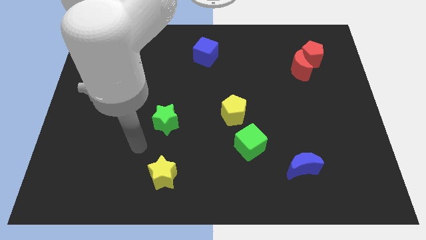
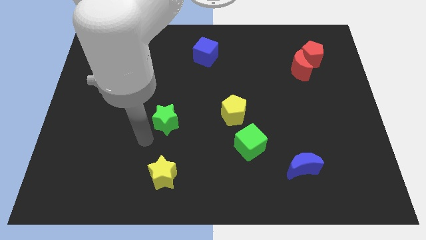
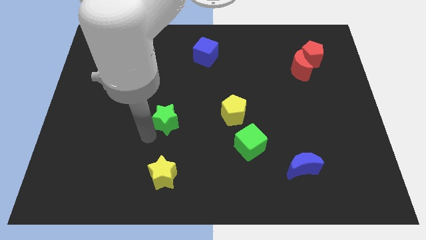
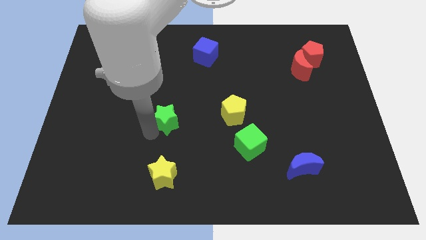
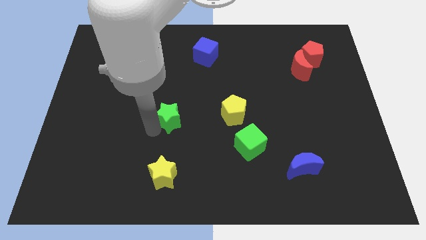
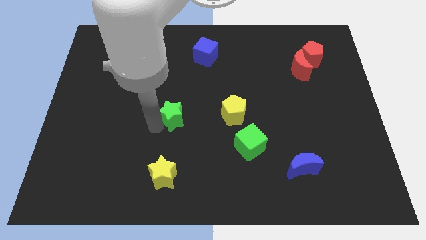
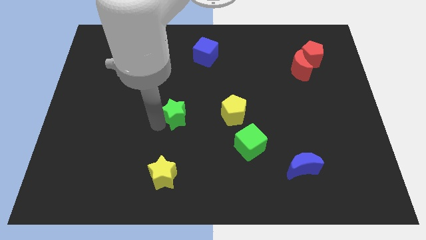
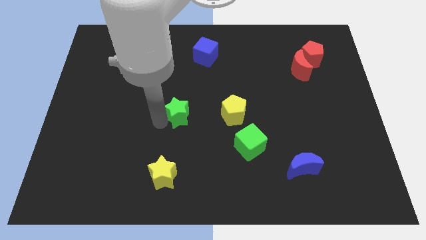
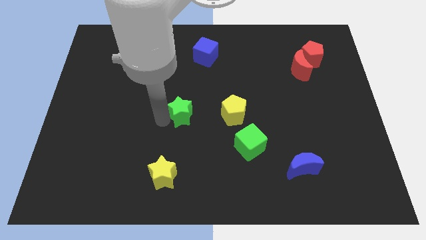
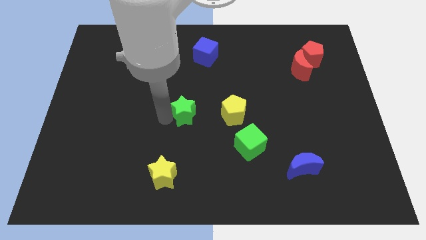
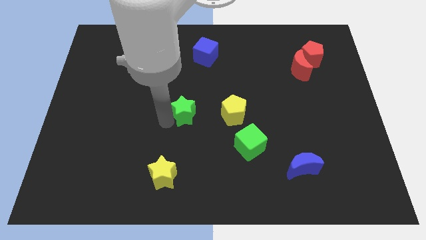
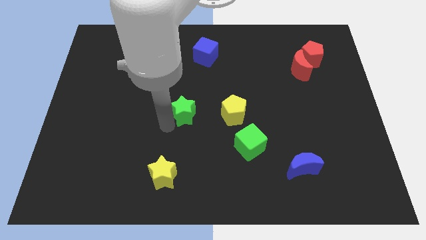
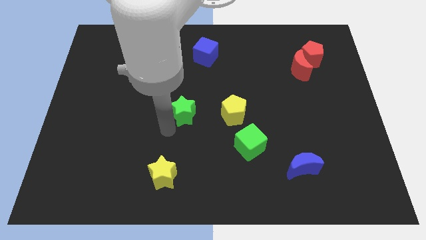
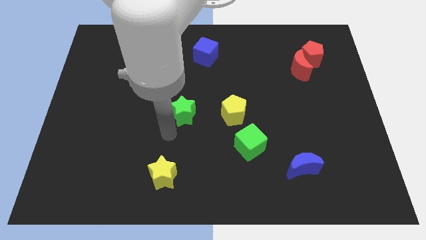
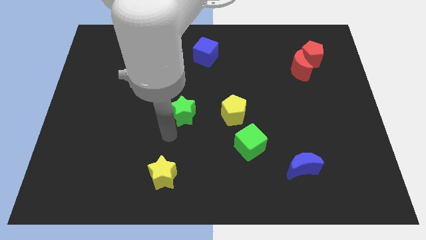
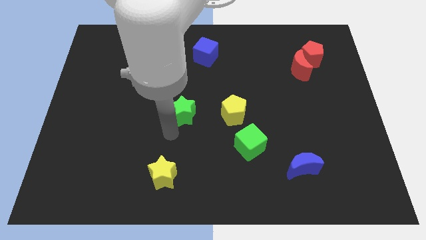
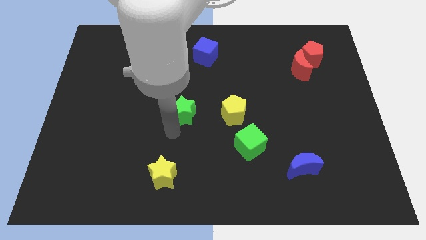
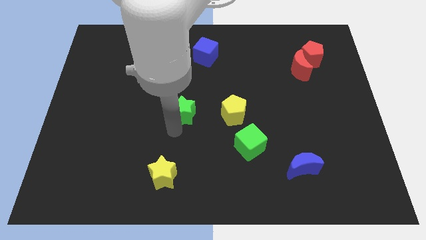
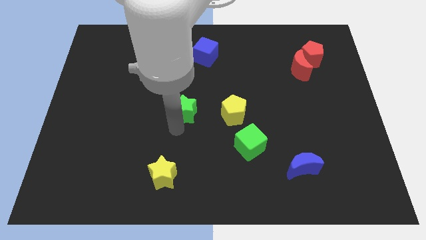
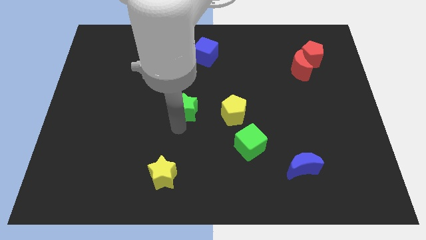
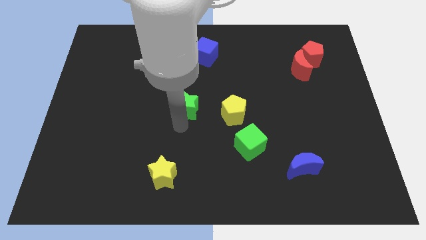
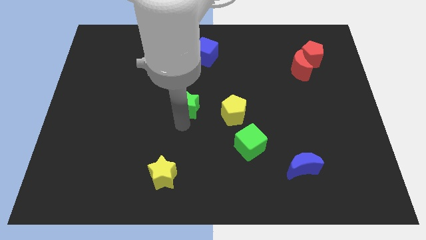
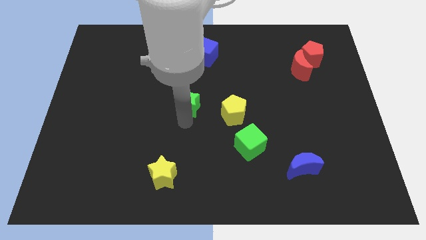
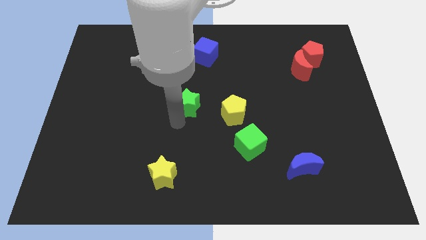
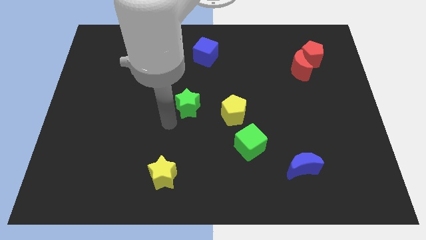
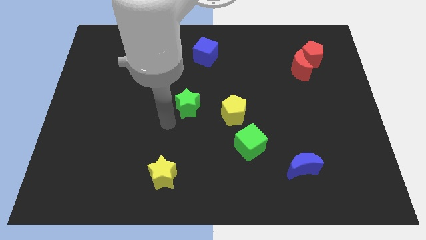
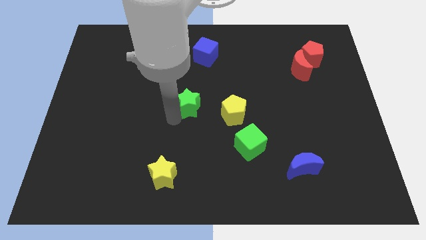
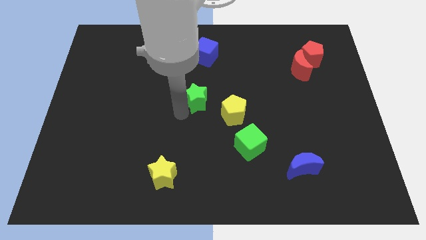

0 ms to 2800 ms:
slightly slide the green star up and then to the right

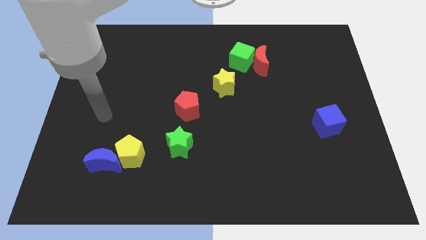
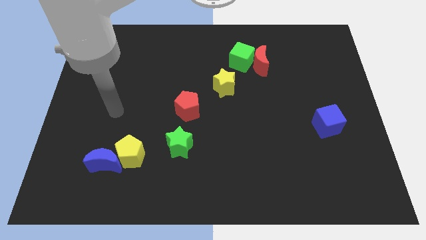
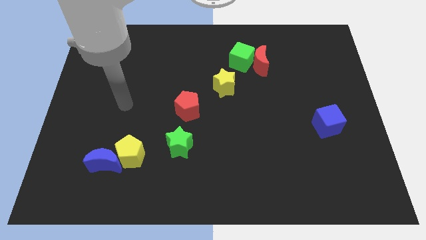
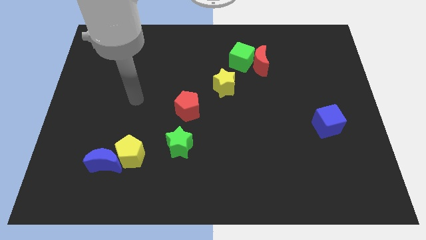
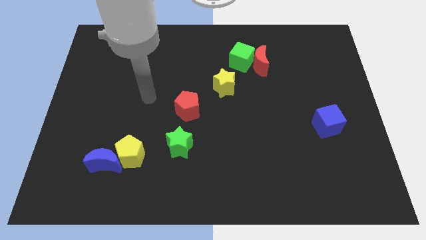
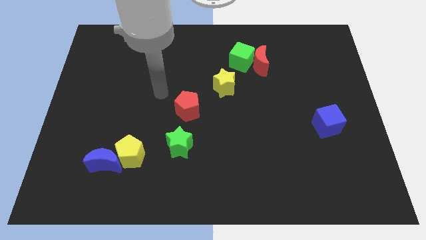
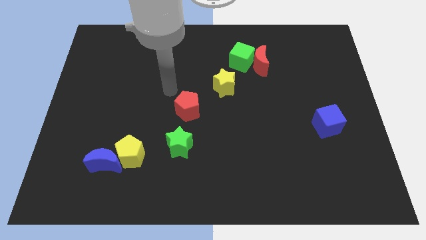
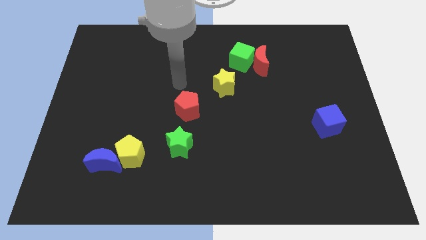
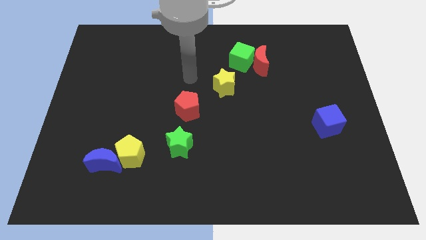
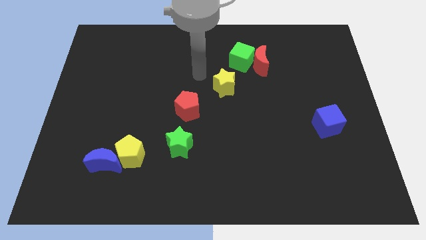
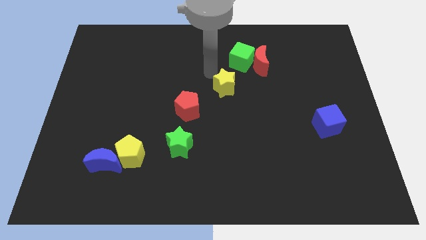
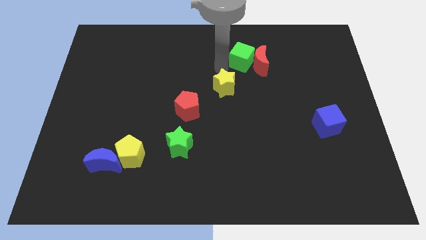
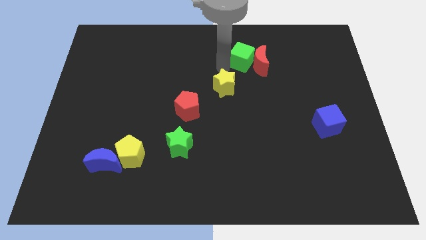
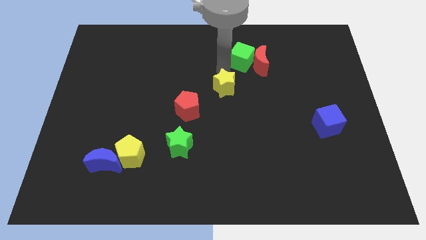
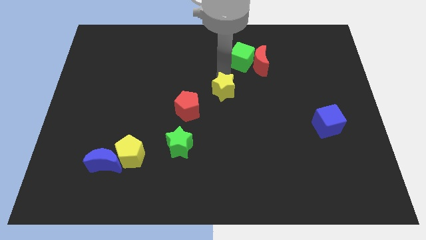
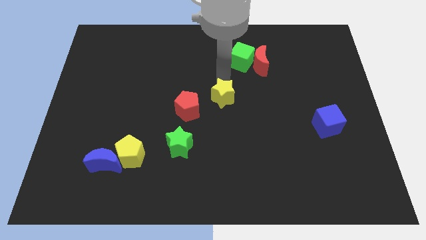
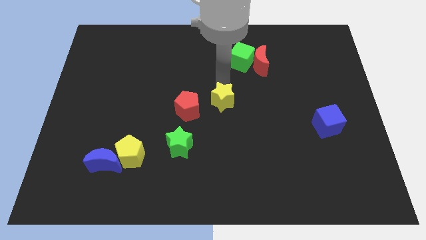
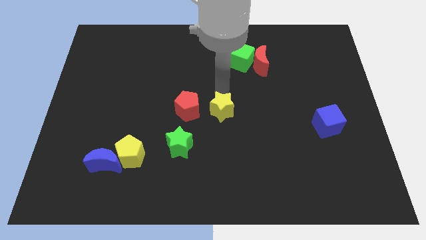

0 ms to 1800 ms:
move the yellow star a little bit down

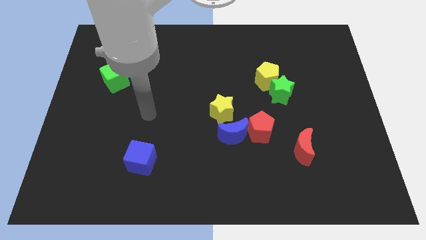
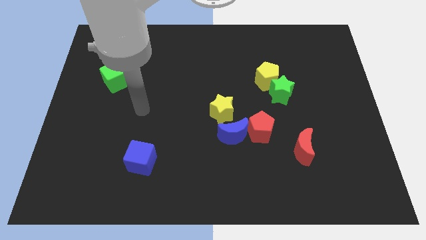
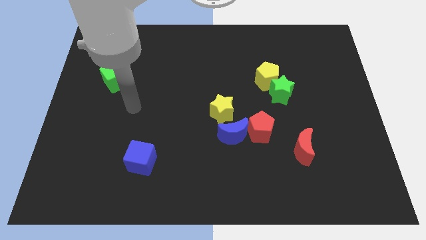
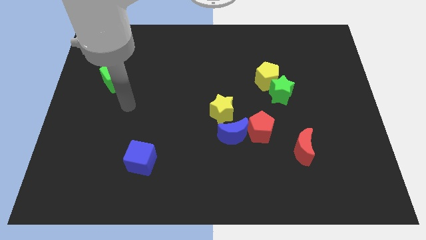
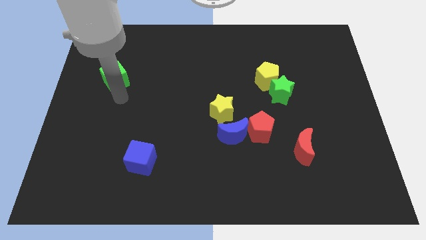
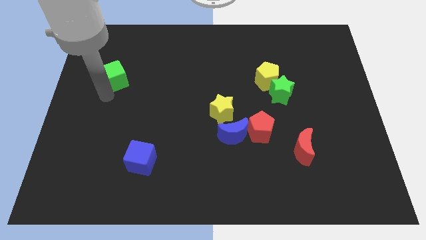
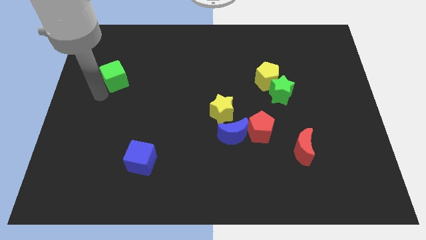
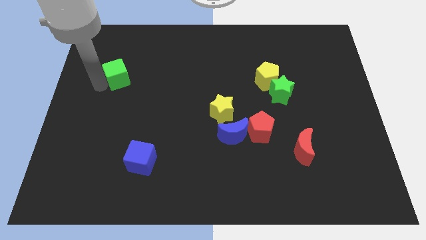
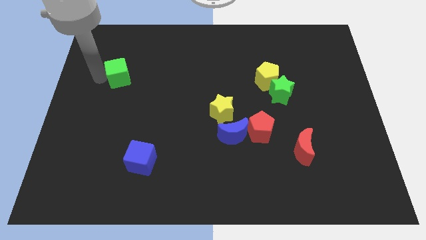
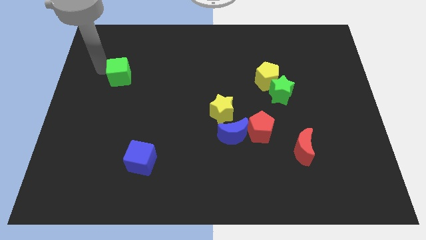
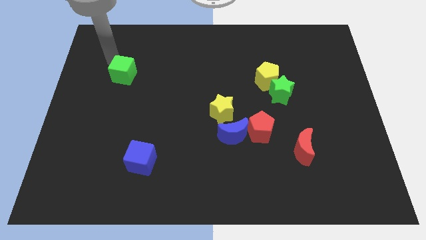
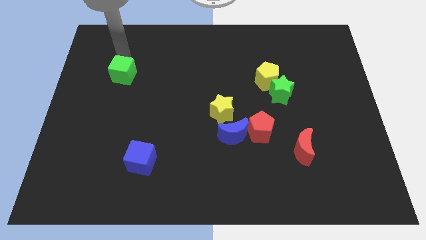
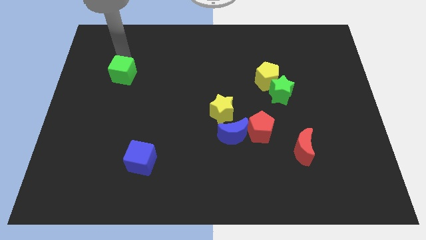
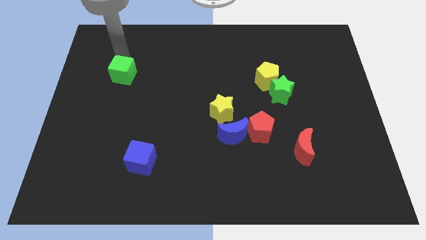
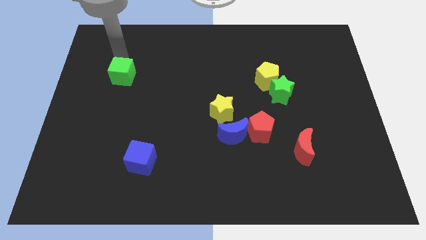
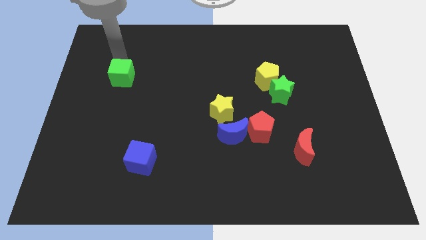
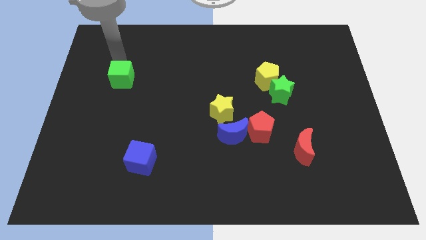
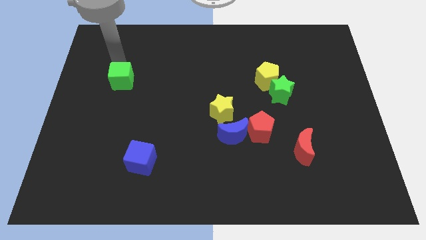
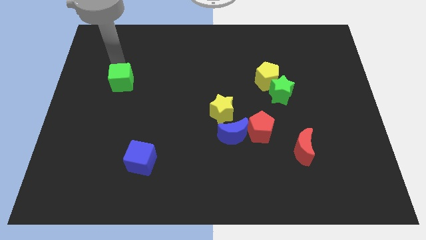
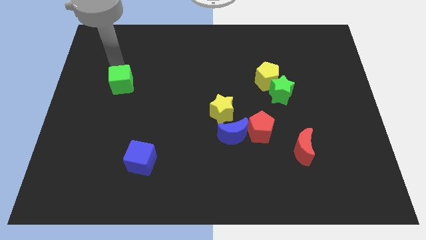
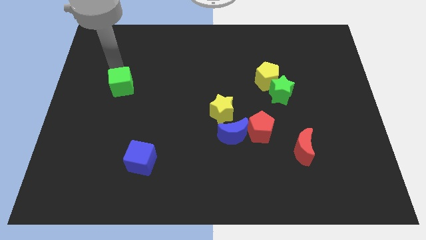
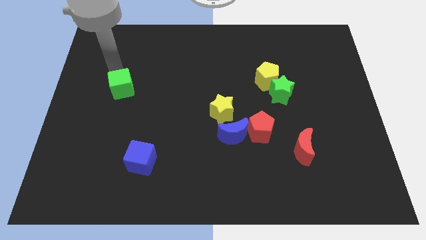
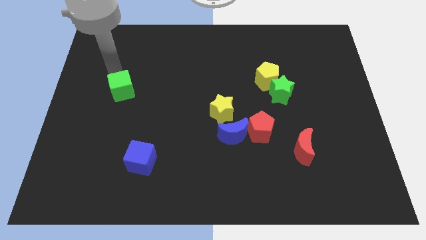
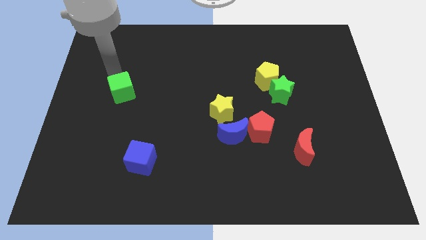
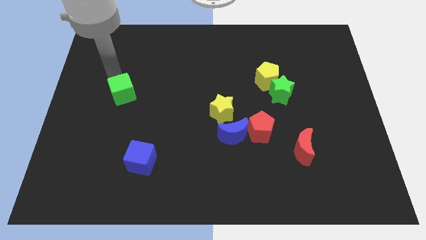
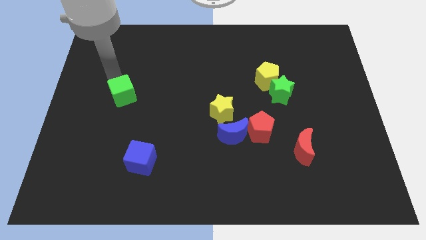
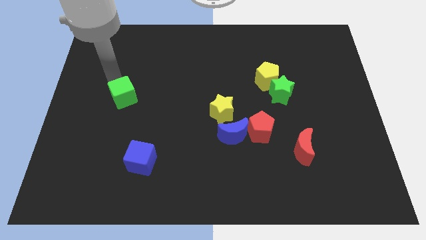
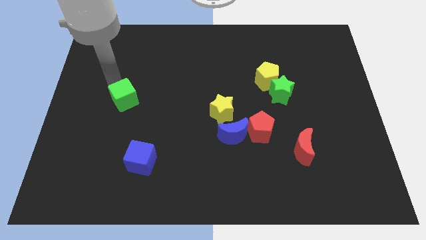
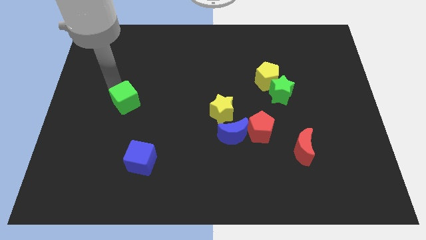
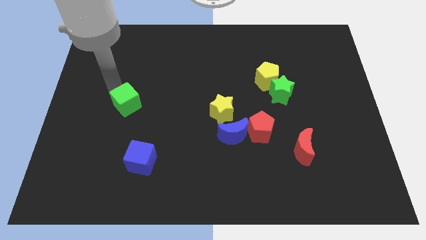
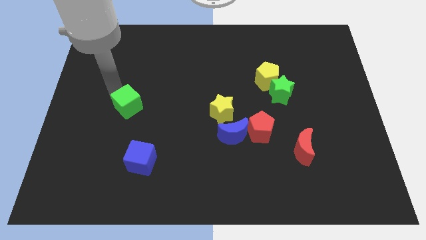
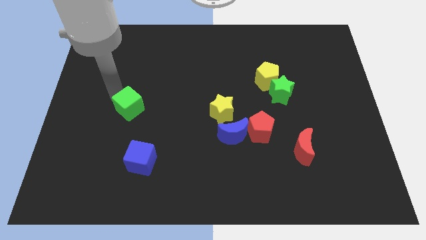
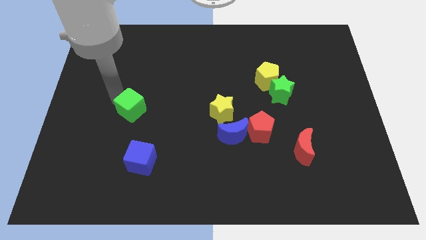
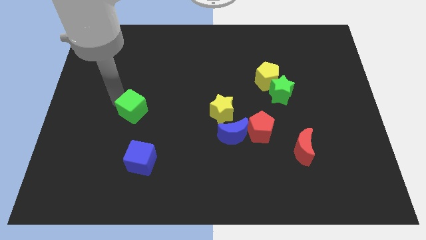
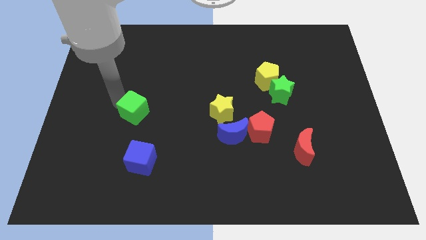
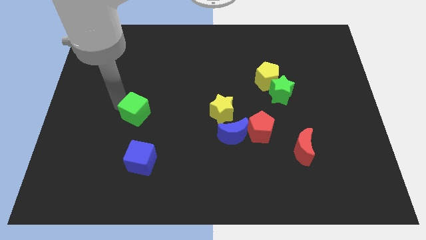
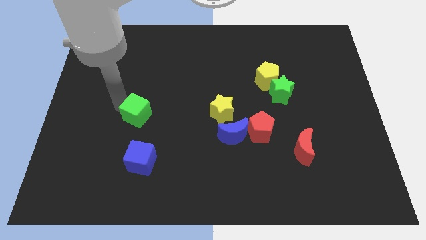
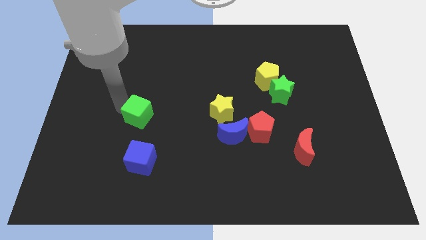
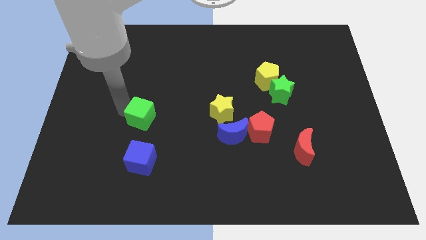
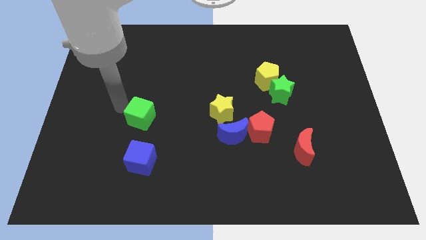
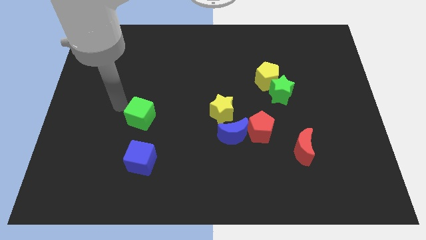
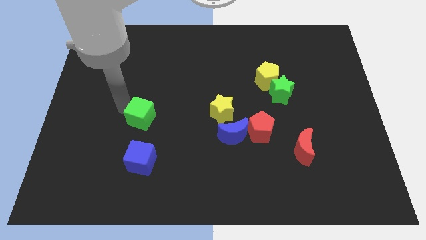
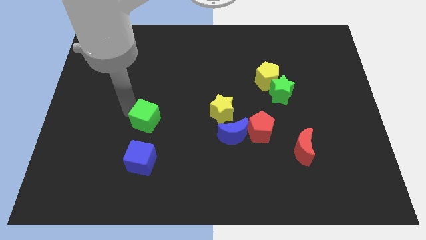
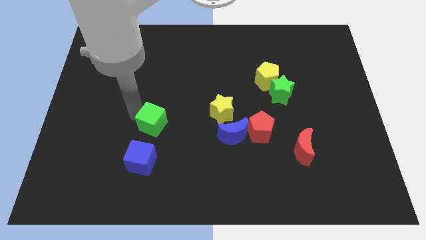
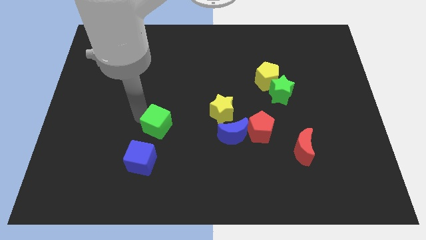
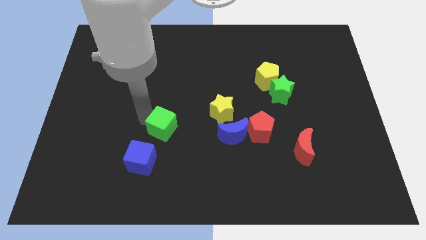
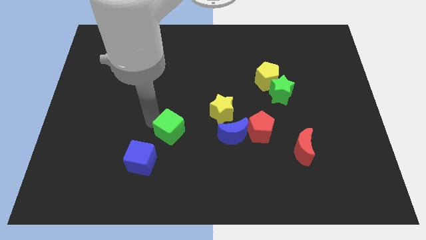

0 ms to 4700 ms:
push the green cube down and to the right diagonally
